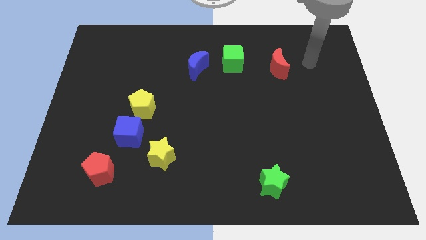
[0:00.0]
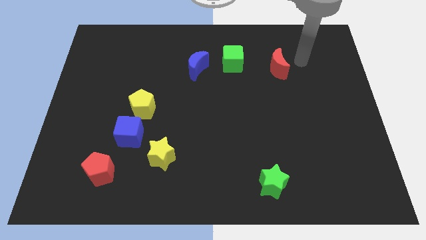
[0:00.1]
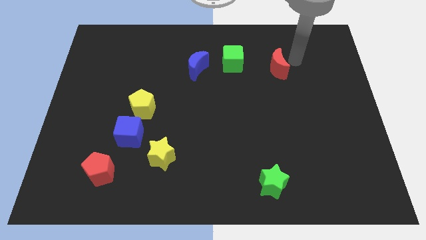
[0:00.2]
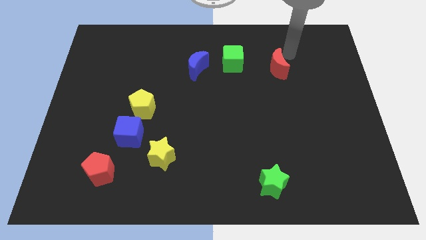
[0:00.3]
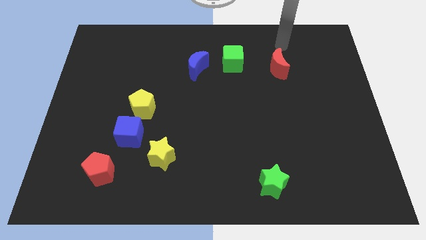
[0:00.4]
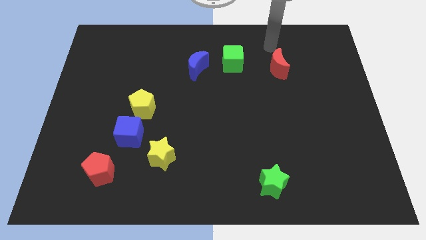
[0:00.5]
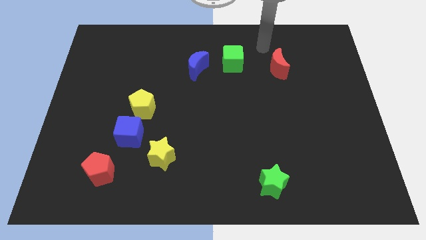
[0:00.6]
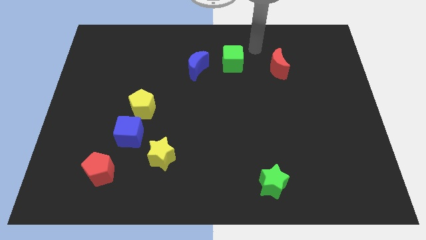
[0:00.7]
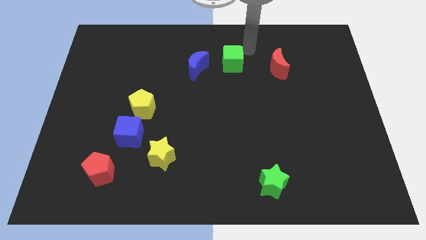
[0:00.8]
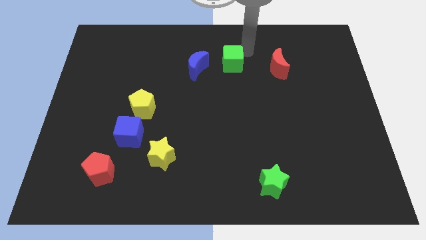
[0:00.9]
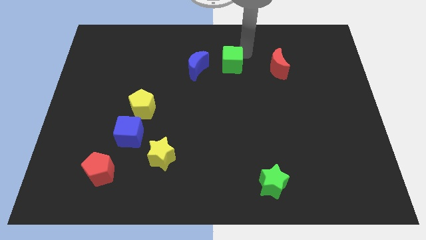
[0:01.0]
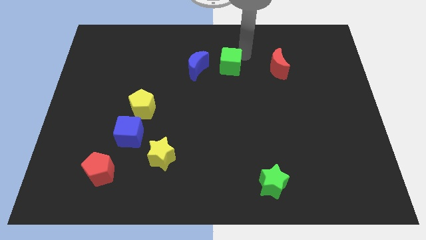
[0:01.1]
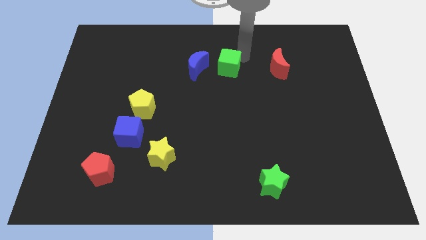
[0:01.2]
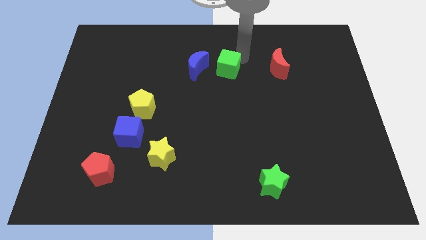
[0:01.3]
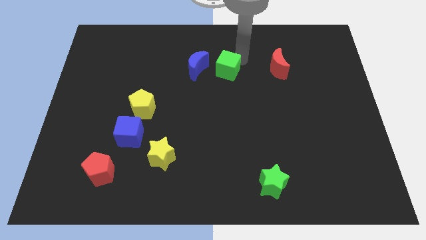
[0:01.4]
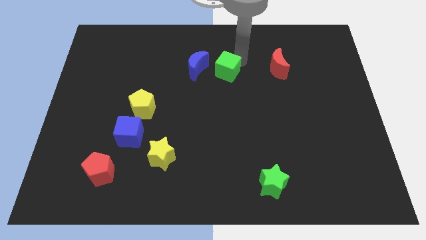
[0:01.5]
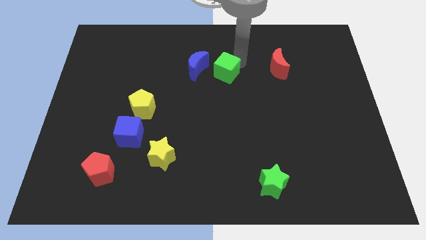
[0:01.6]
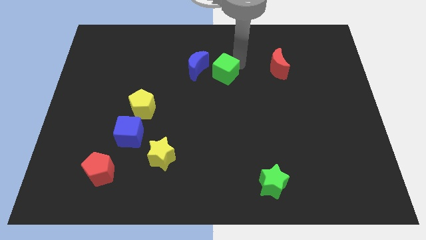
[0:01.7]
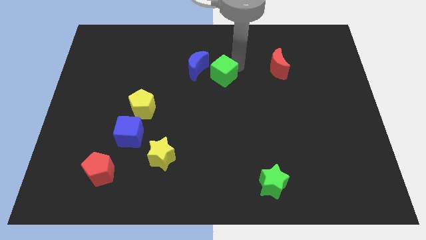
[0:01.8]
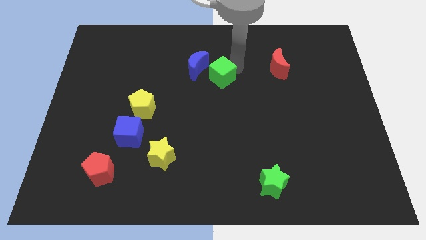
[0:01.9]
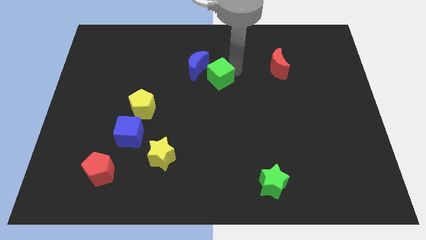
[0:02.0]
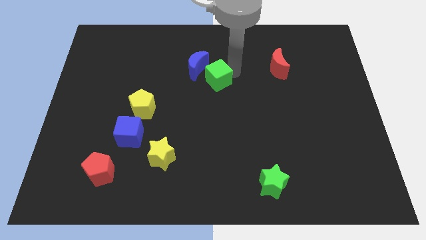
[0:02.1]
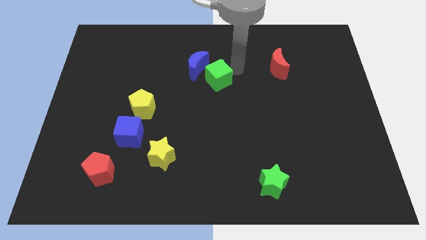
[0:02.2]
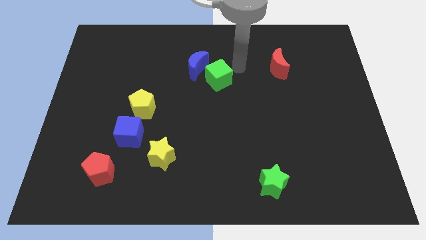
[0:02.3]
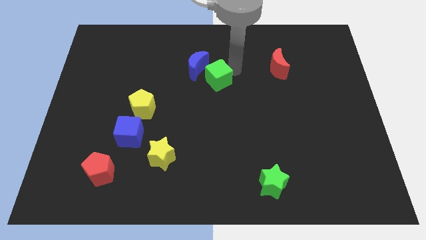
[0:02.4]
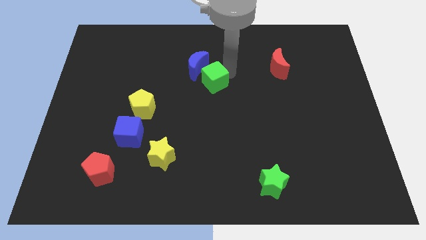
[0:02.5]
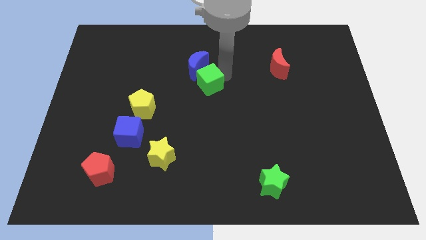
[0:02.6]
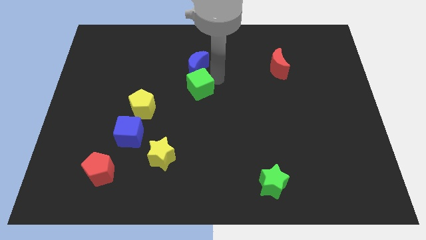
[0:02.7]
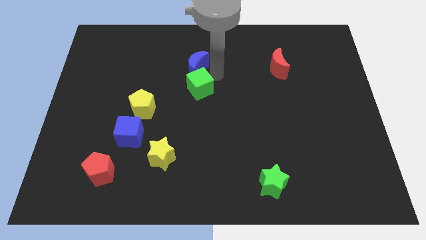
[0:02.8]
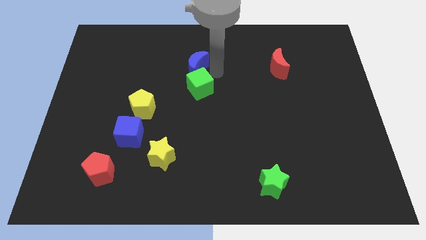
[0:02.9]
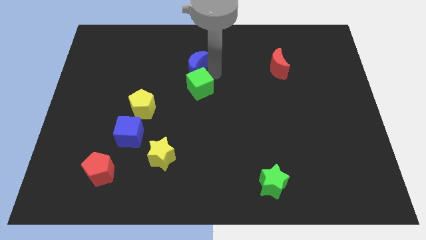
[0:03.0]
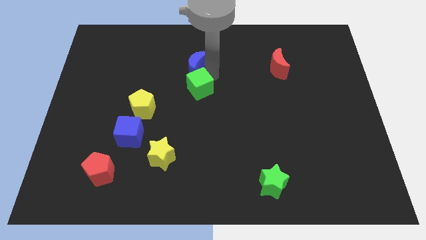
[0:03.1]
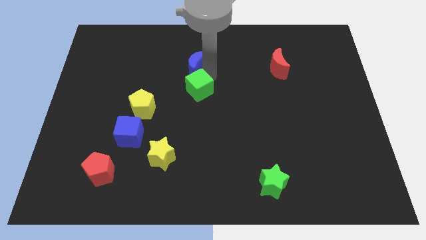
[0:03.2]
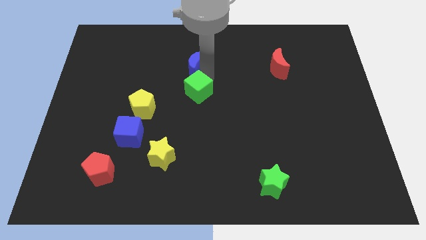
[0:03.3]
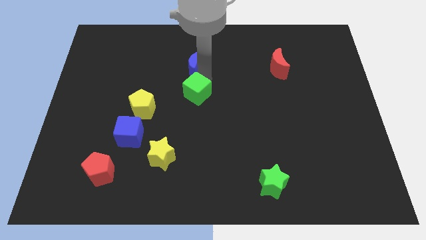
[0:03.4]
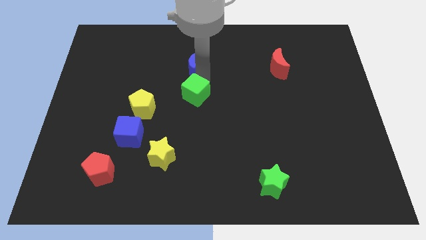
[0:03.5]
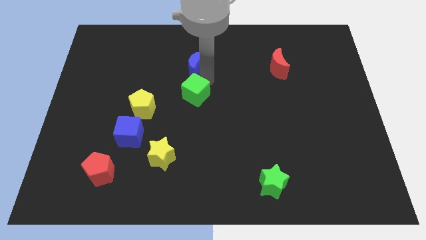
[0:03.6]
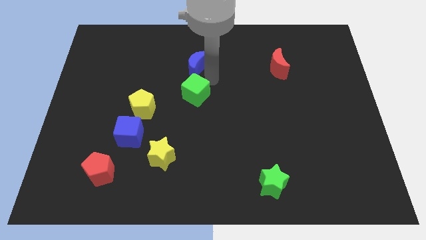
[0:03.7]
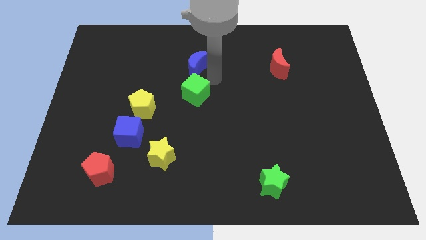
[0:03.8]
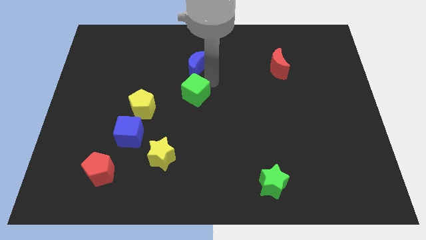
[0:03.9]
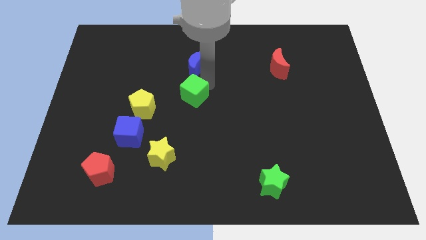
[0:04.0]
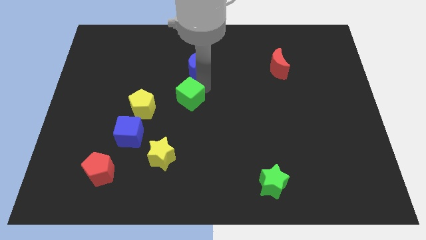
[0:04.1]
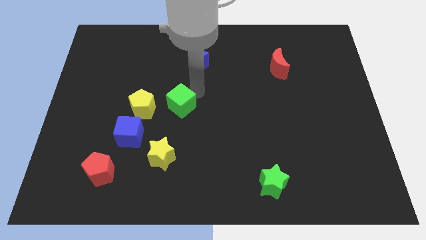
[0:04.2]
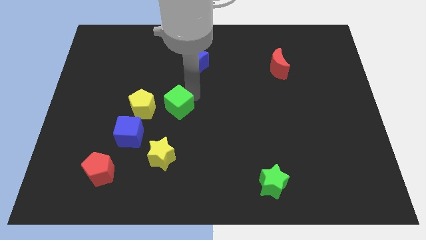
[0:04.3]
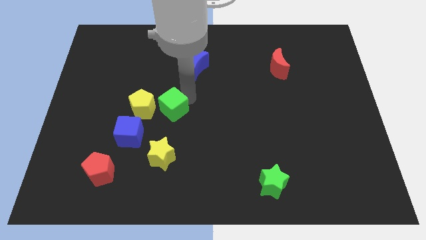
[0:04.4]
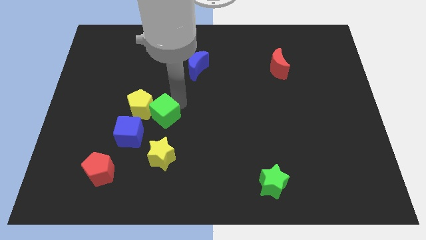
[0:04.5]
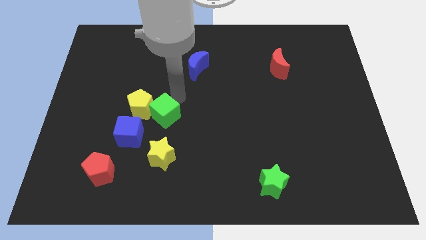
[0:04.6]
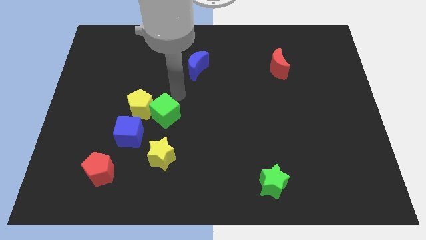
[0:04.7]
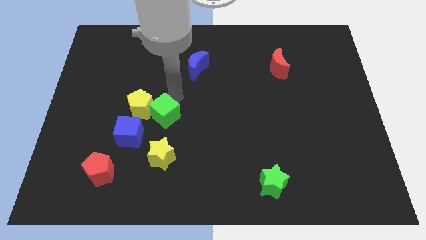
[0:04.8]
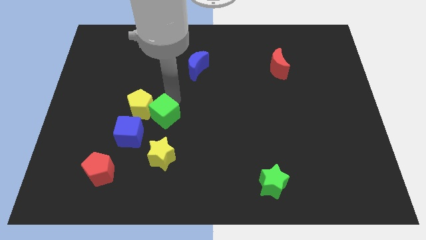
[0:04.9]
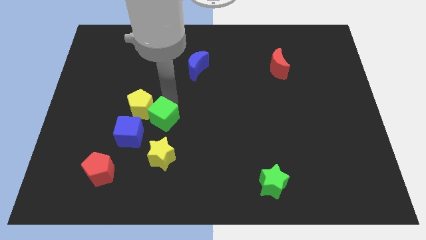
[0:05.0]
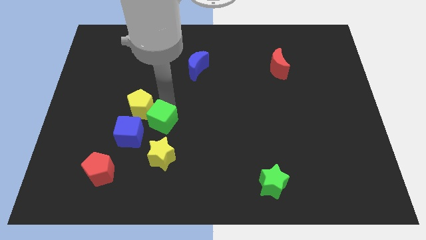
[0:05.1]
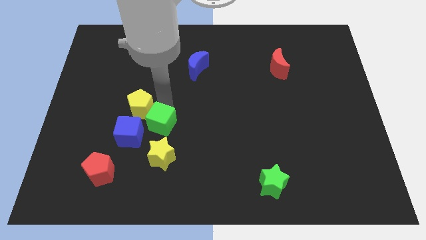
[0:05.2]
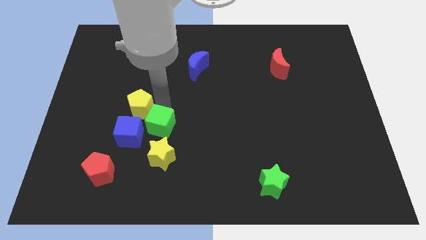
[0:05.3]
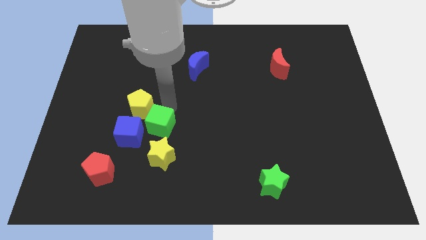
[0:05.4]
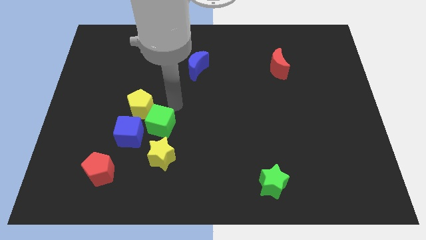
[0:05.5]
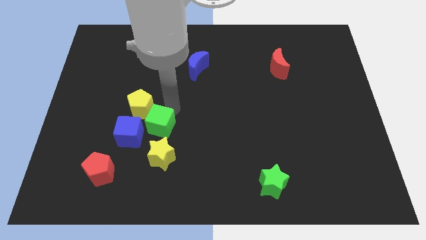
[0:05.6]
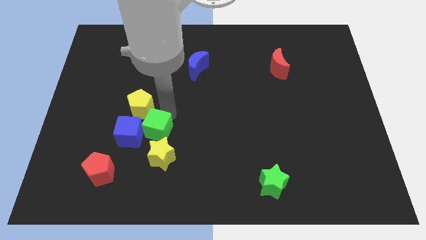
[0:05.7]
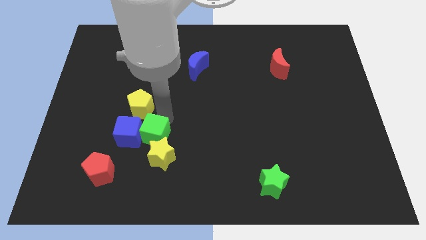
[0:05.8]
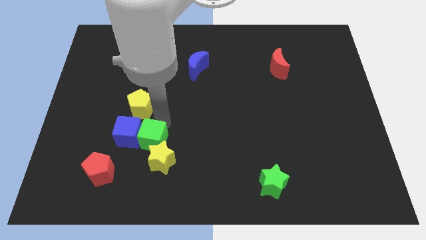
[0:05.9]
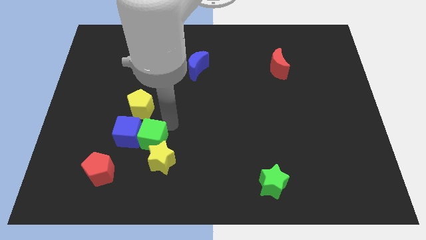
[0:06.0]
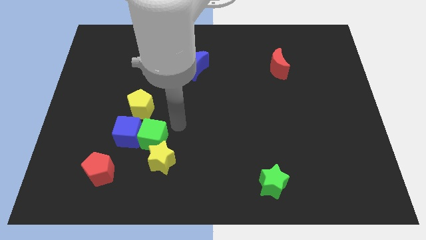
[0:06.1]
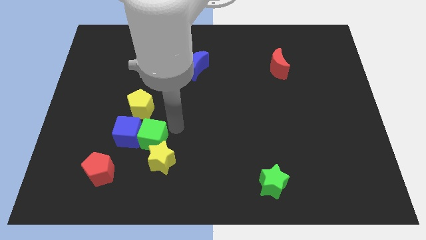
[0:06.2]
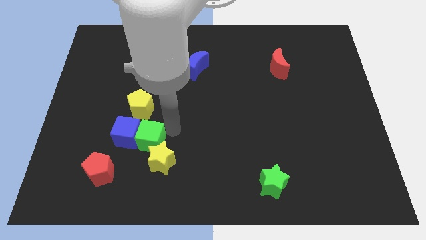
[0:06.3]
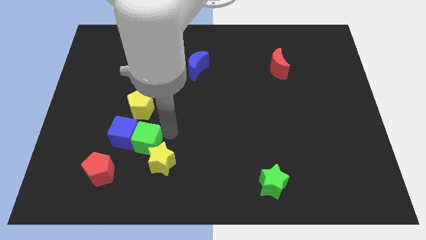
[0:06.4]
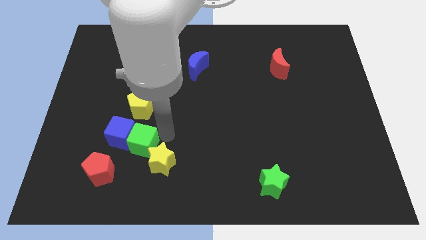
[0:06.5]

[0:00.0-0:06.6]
put the green cube to the left side of the yellow star

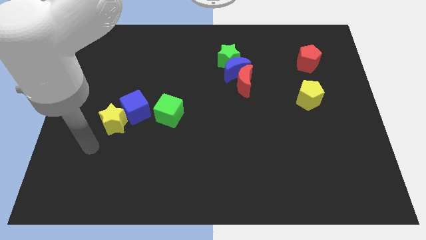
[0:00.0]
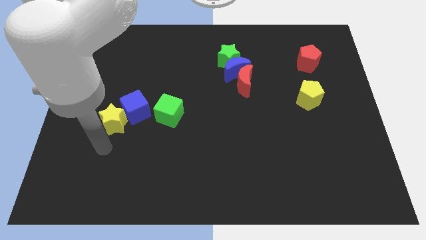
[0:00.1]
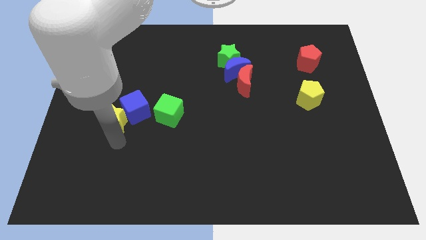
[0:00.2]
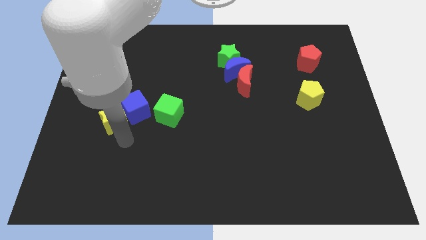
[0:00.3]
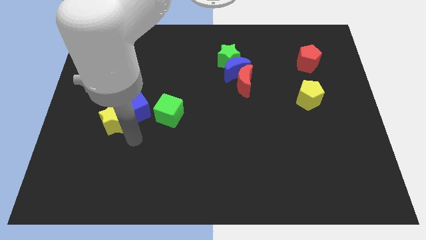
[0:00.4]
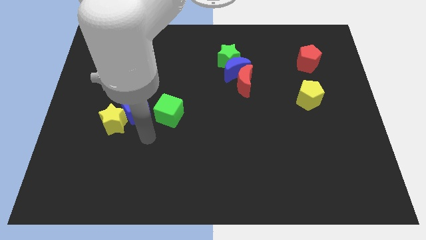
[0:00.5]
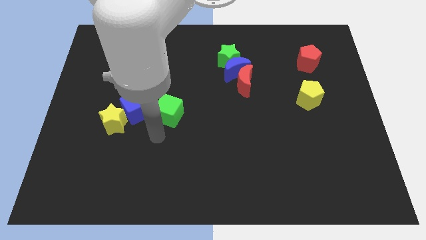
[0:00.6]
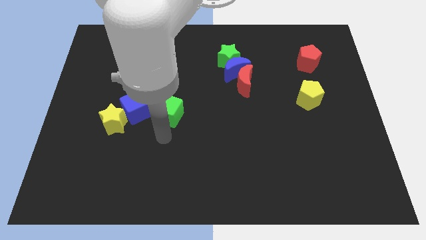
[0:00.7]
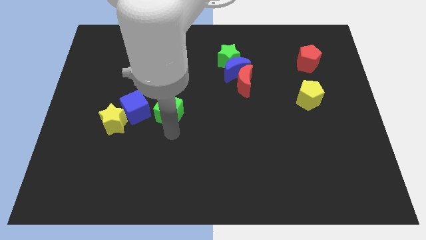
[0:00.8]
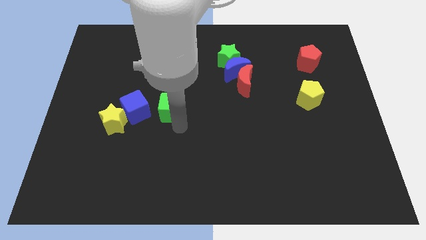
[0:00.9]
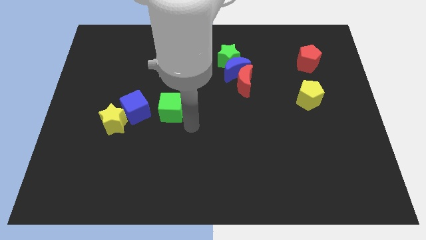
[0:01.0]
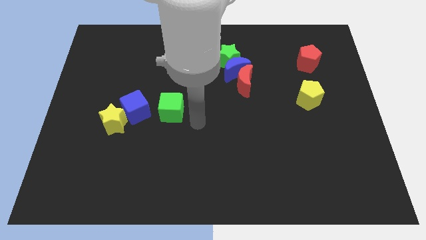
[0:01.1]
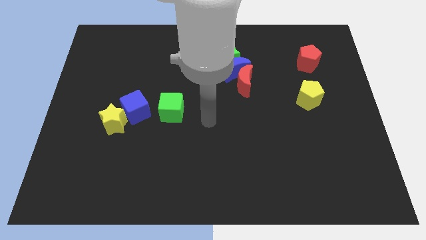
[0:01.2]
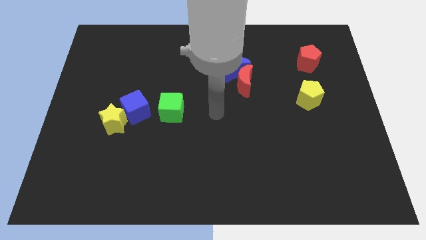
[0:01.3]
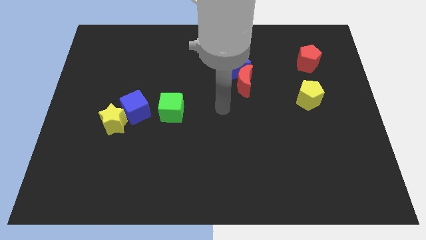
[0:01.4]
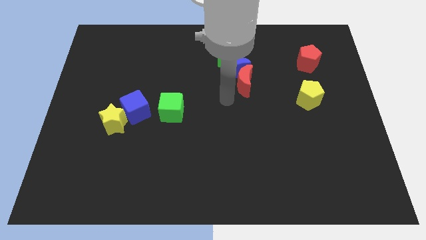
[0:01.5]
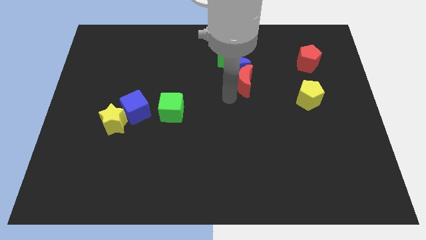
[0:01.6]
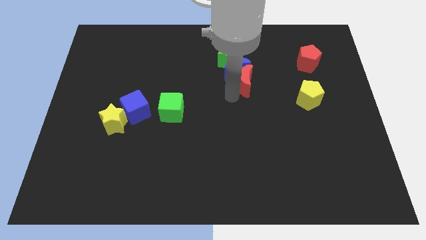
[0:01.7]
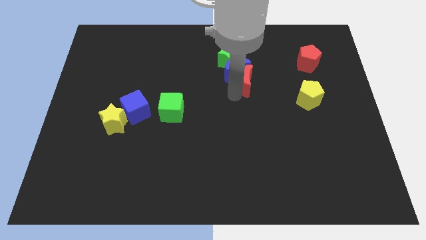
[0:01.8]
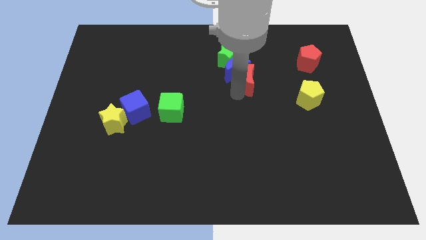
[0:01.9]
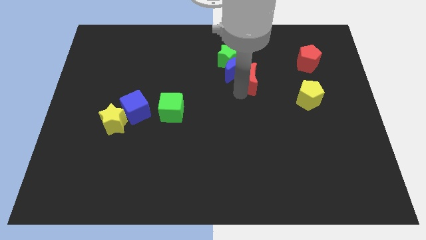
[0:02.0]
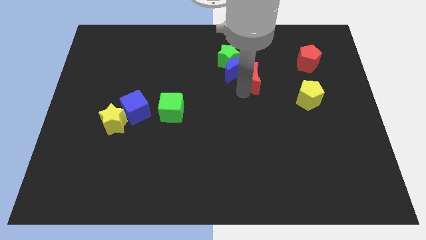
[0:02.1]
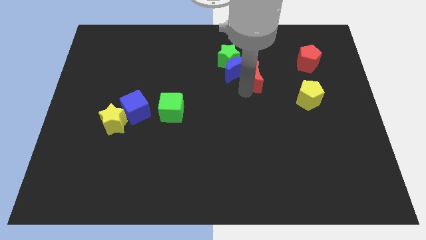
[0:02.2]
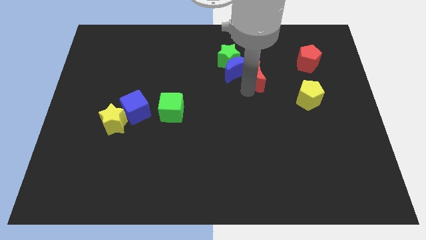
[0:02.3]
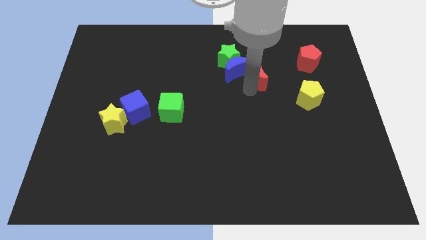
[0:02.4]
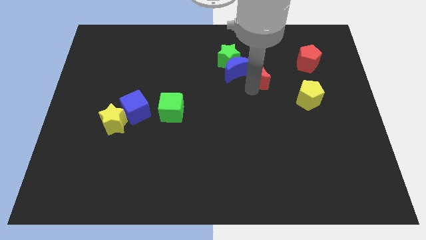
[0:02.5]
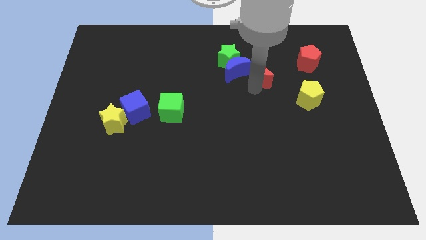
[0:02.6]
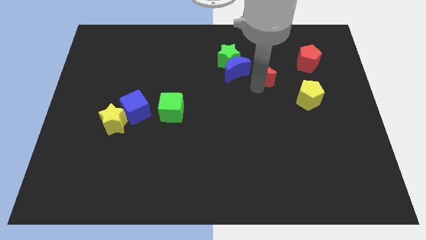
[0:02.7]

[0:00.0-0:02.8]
push the red moon just left of the red pentagon
